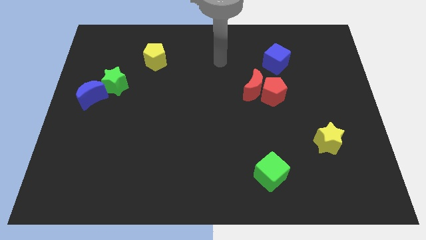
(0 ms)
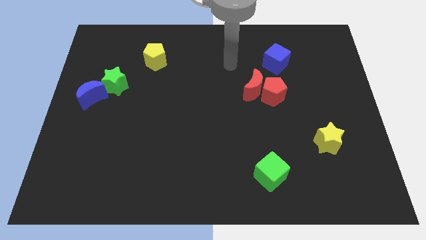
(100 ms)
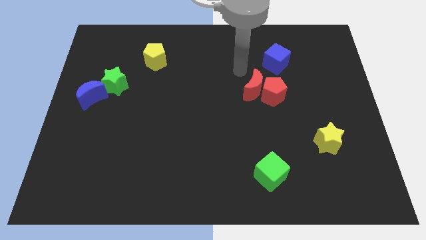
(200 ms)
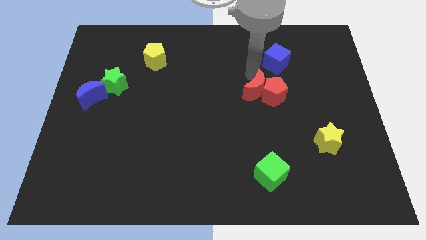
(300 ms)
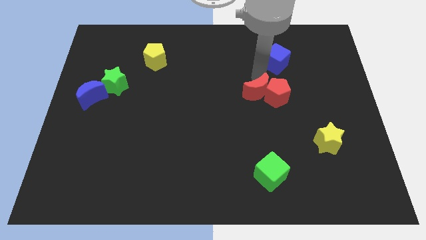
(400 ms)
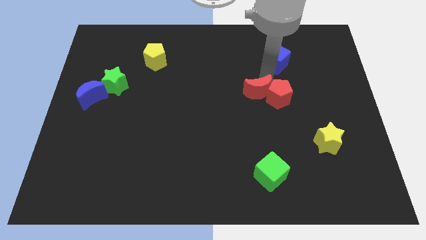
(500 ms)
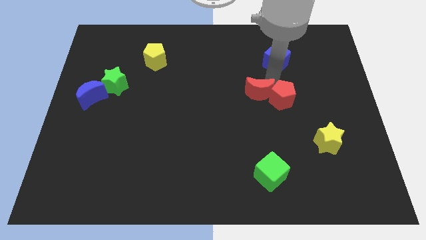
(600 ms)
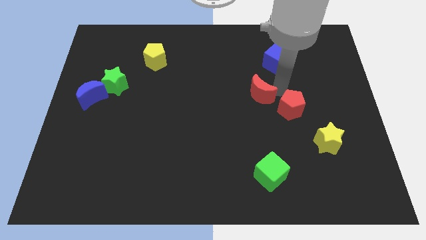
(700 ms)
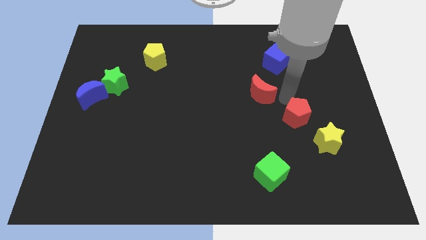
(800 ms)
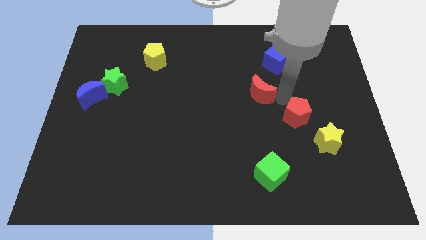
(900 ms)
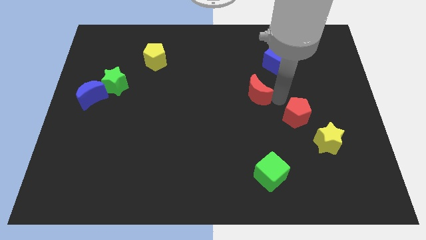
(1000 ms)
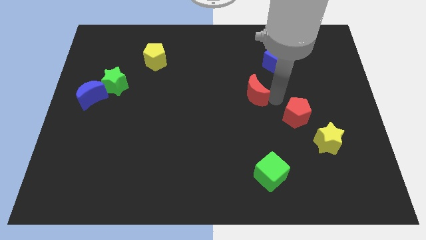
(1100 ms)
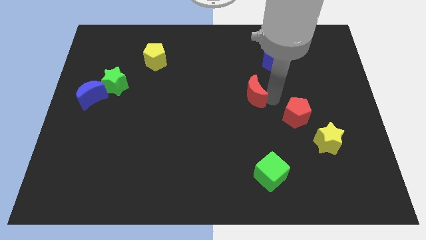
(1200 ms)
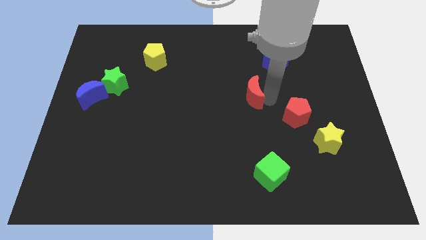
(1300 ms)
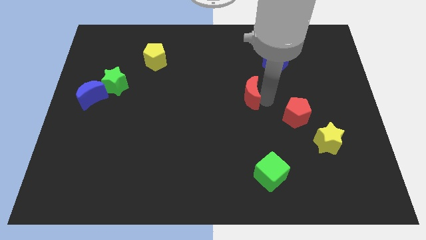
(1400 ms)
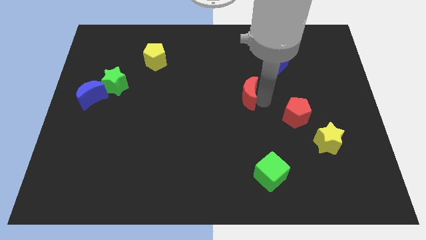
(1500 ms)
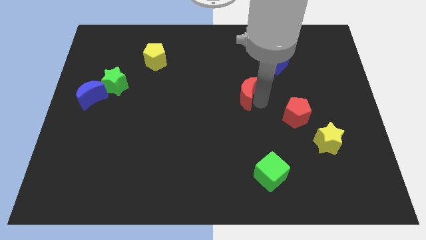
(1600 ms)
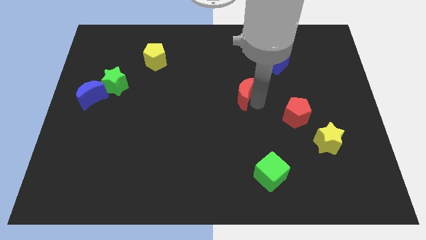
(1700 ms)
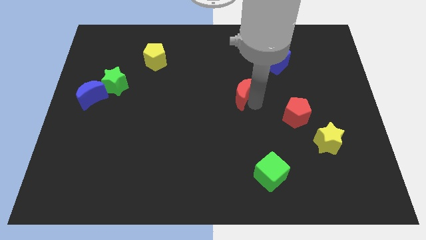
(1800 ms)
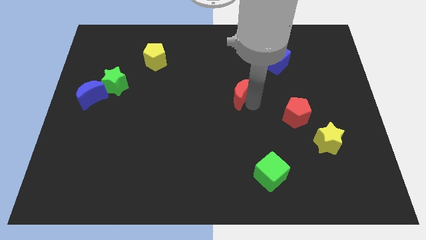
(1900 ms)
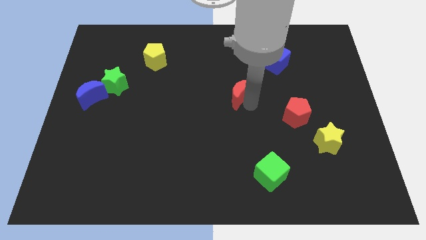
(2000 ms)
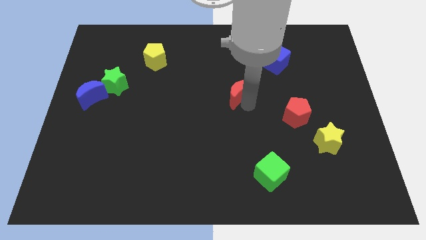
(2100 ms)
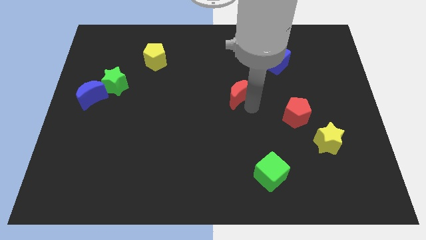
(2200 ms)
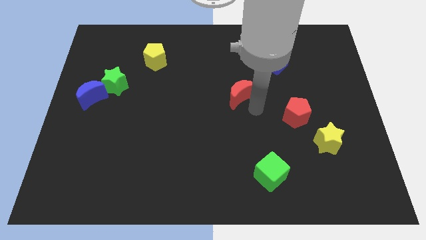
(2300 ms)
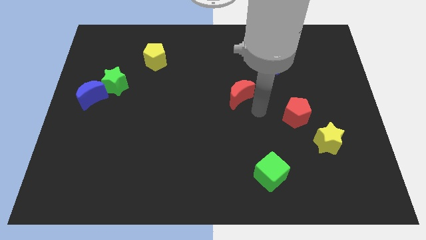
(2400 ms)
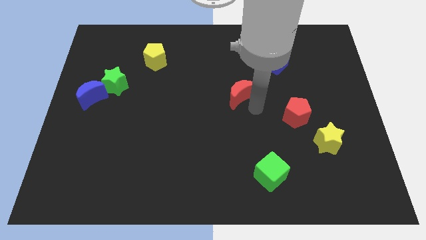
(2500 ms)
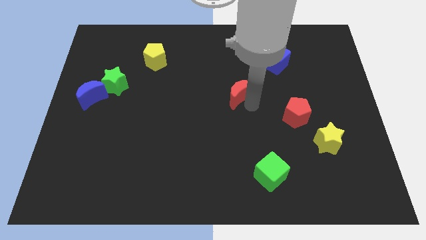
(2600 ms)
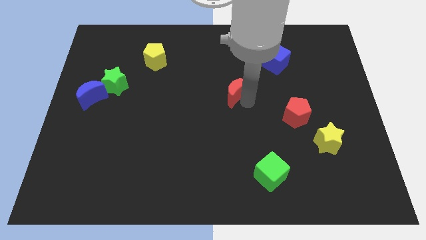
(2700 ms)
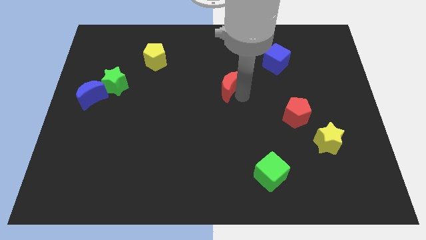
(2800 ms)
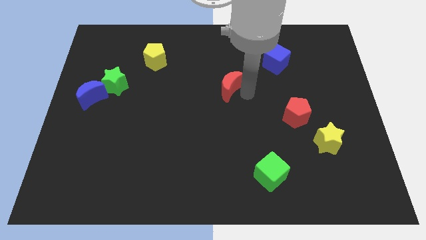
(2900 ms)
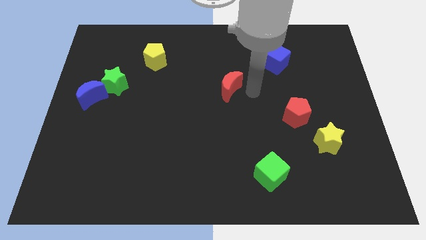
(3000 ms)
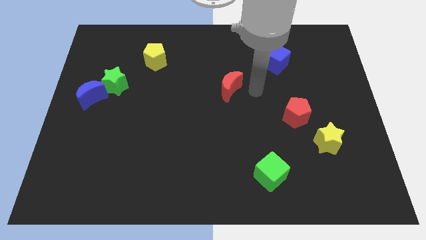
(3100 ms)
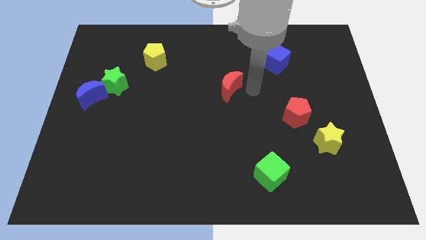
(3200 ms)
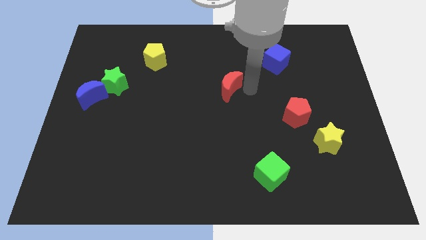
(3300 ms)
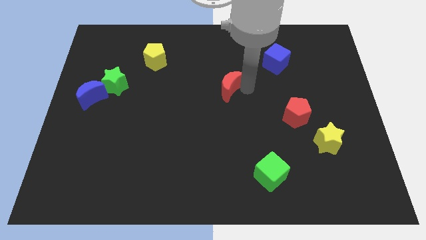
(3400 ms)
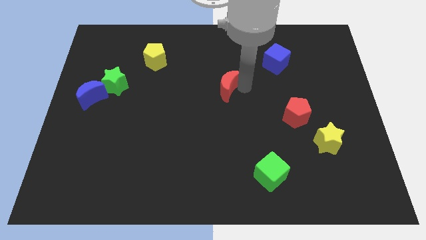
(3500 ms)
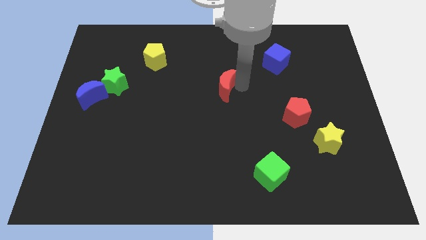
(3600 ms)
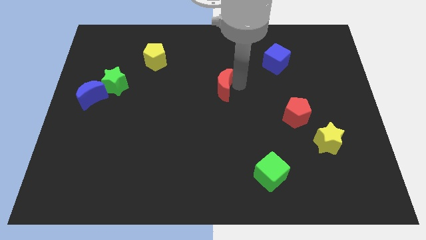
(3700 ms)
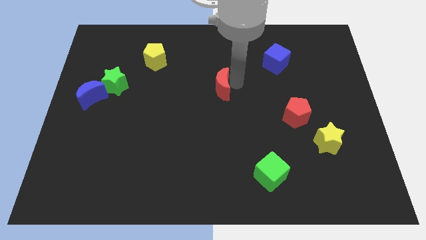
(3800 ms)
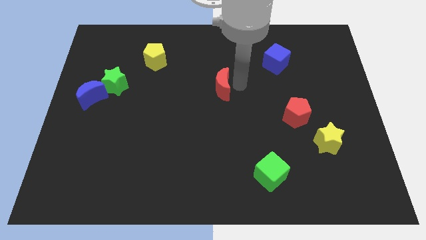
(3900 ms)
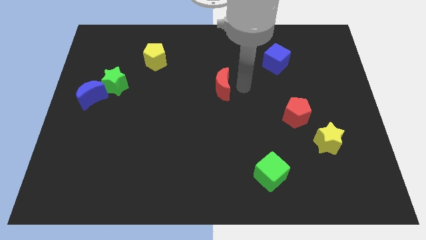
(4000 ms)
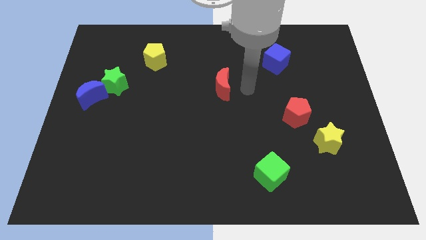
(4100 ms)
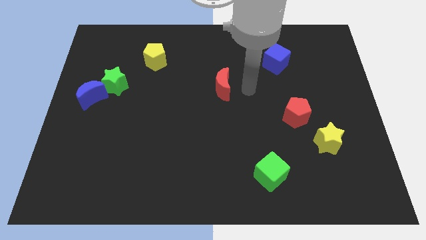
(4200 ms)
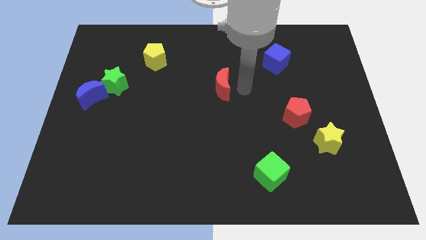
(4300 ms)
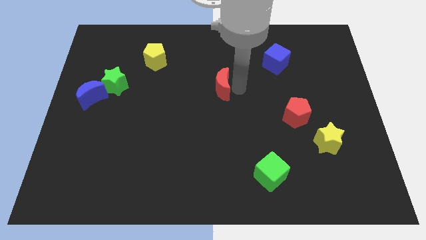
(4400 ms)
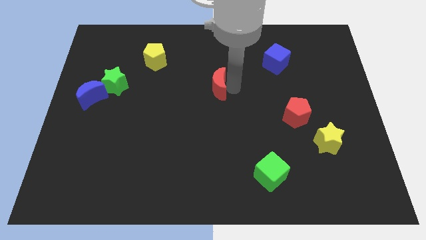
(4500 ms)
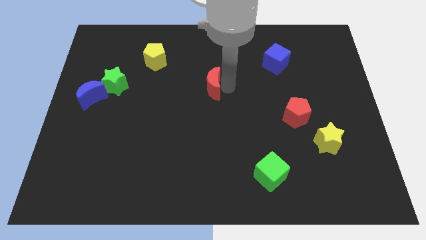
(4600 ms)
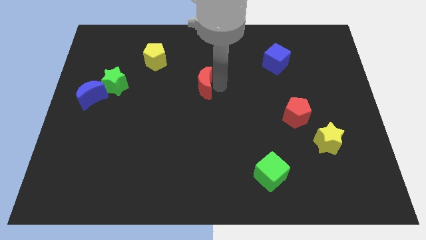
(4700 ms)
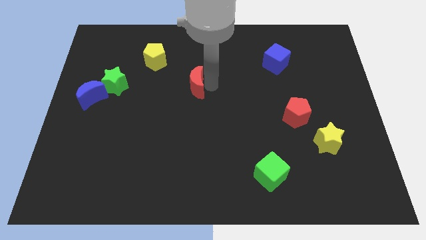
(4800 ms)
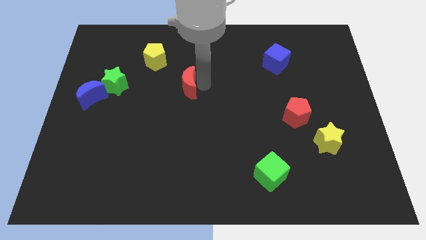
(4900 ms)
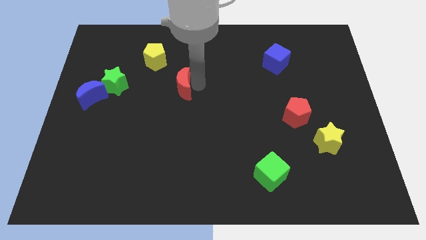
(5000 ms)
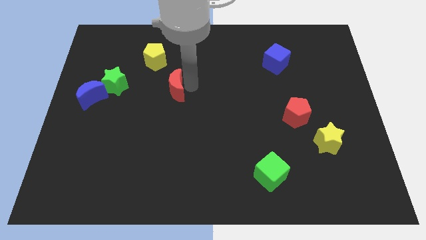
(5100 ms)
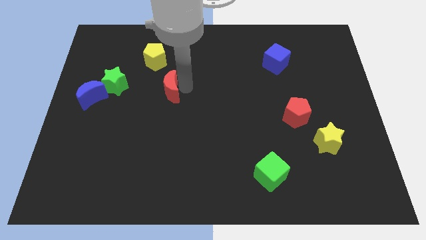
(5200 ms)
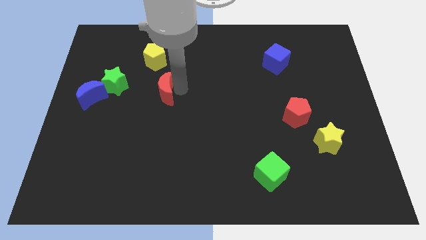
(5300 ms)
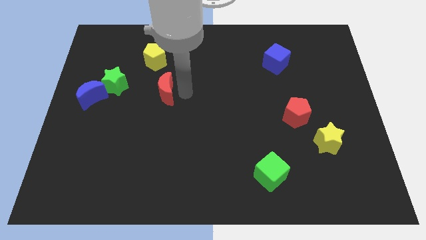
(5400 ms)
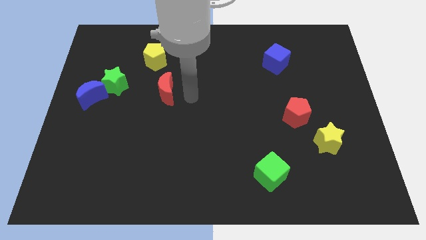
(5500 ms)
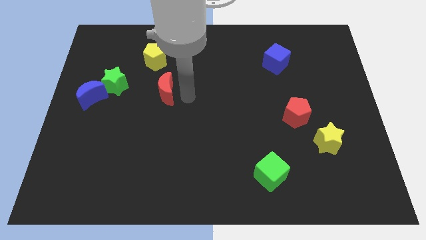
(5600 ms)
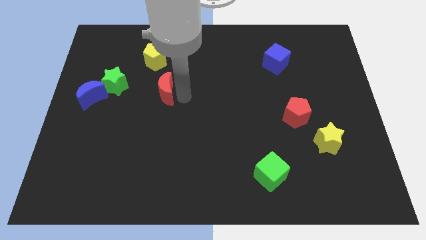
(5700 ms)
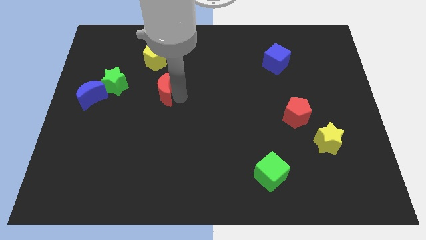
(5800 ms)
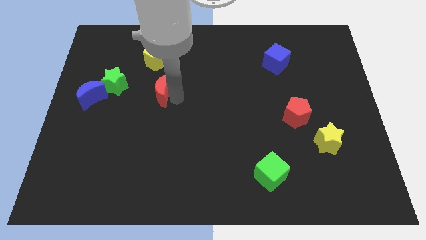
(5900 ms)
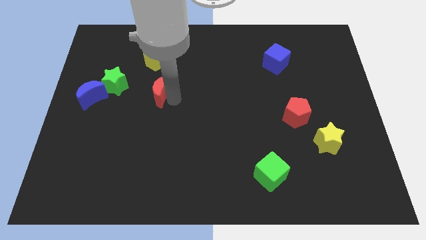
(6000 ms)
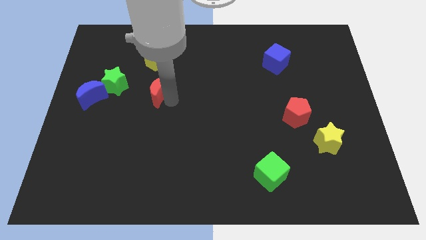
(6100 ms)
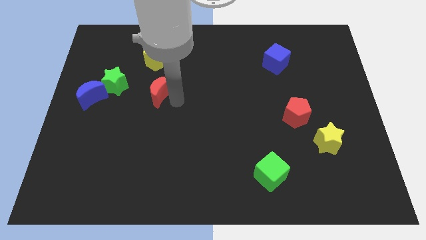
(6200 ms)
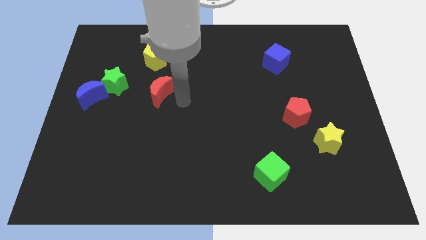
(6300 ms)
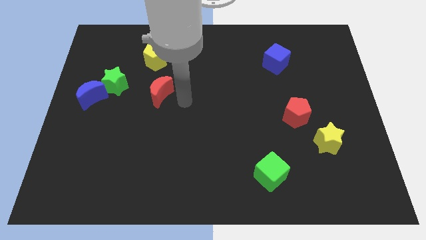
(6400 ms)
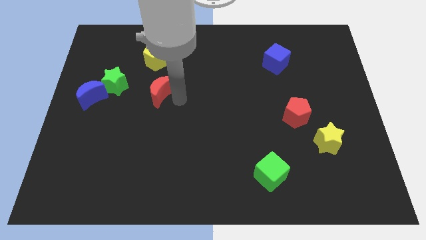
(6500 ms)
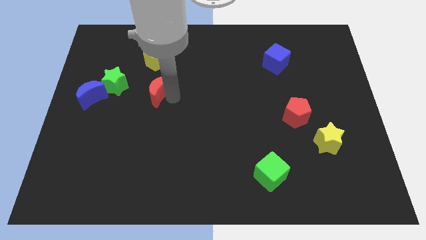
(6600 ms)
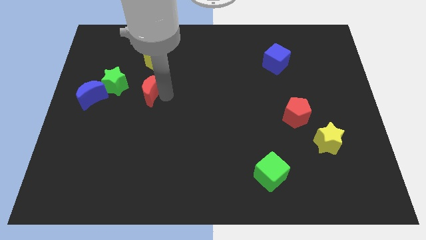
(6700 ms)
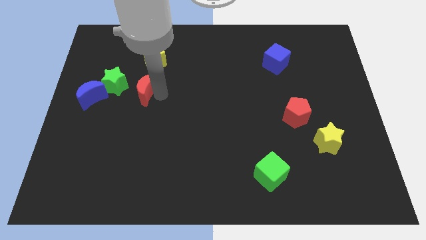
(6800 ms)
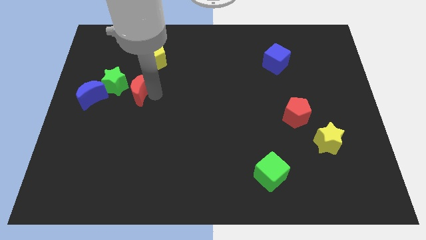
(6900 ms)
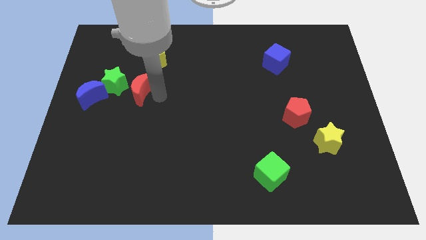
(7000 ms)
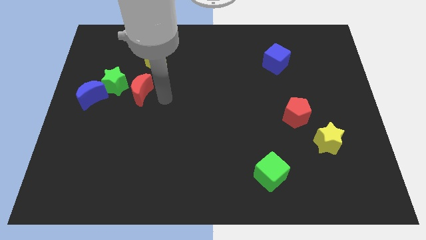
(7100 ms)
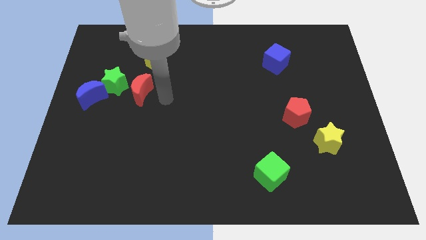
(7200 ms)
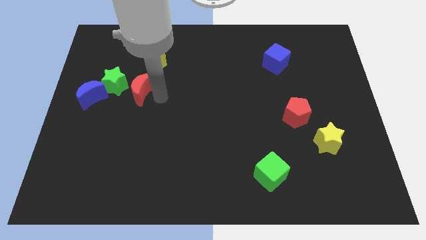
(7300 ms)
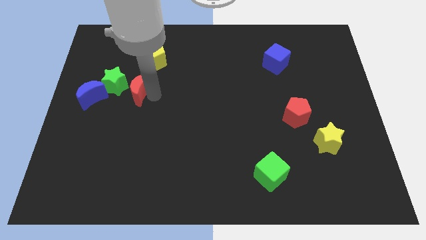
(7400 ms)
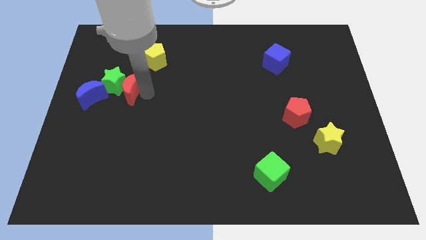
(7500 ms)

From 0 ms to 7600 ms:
slide the red moon close to the green star
